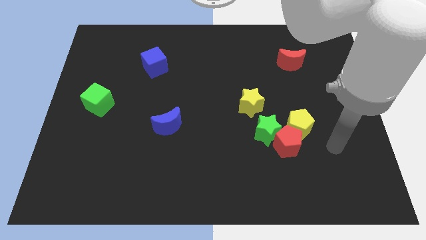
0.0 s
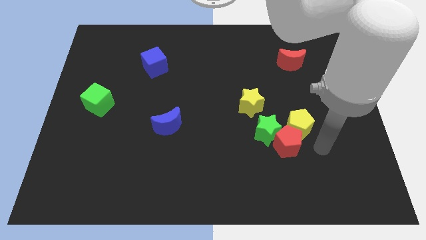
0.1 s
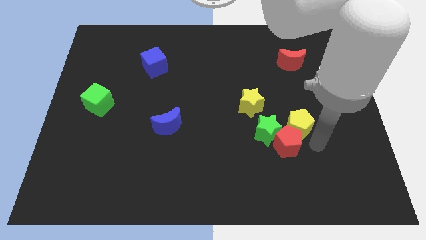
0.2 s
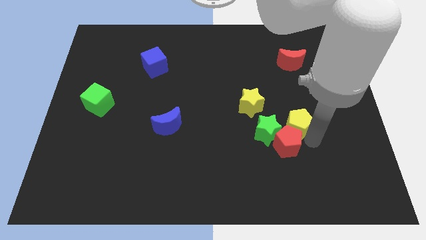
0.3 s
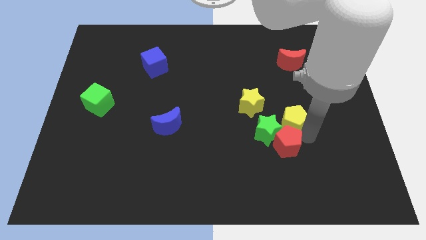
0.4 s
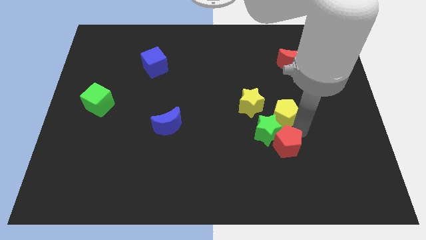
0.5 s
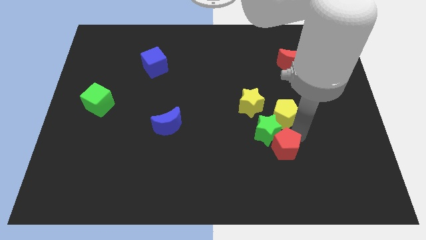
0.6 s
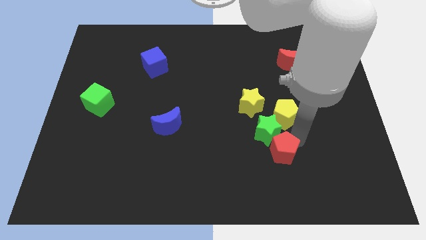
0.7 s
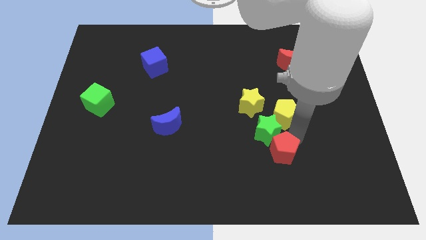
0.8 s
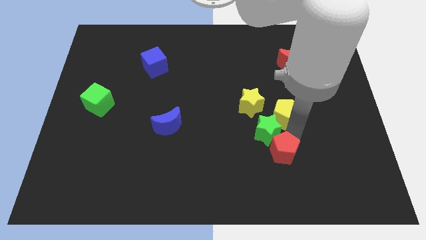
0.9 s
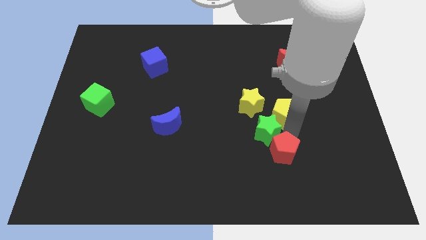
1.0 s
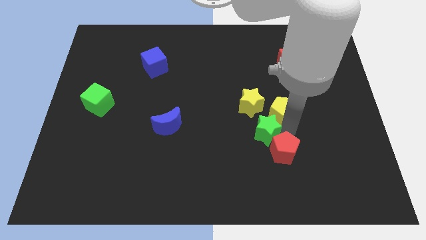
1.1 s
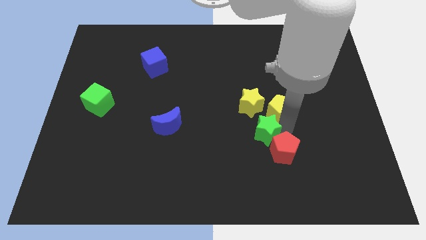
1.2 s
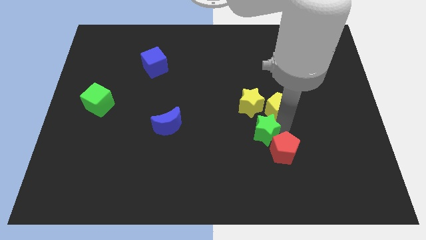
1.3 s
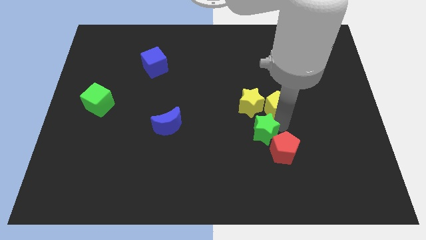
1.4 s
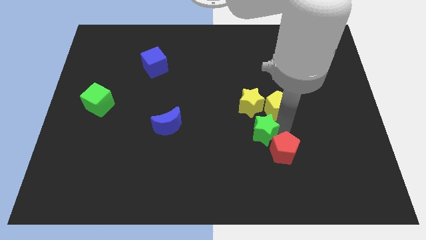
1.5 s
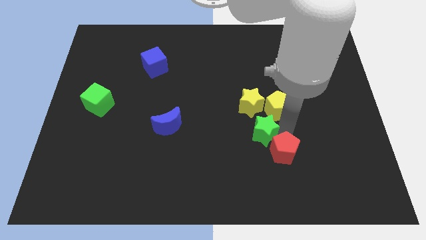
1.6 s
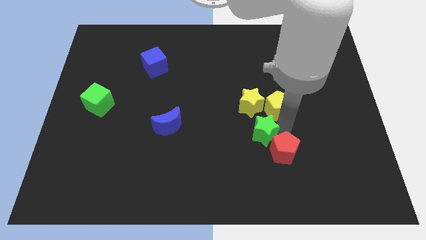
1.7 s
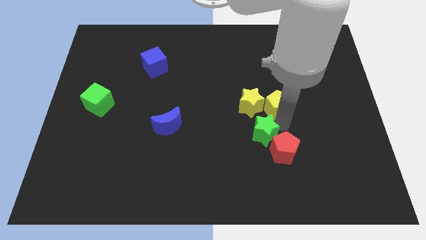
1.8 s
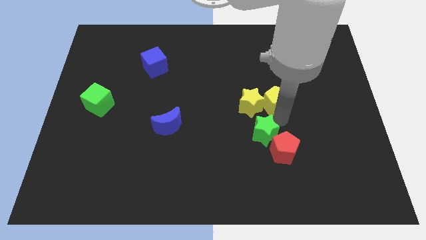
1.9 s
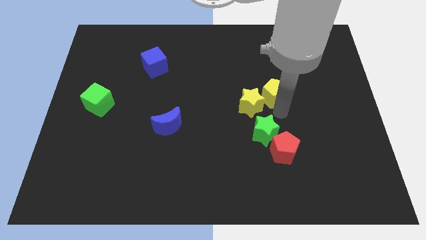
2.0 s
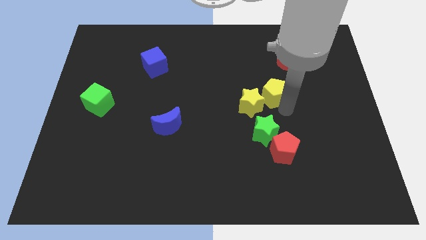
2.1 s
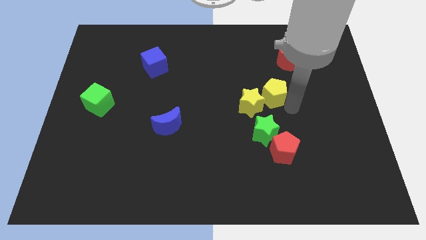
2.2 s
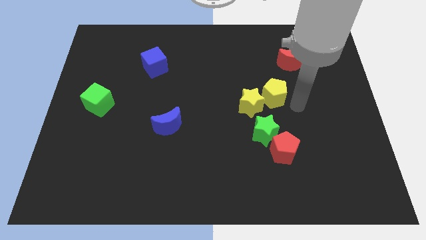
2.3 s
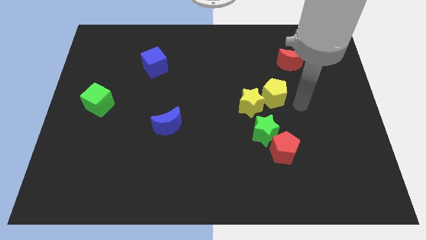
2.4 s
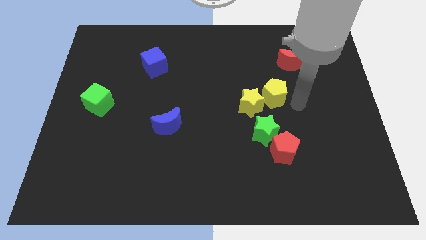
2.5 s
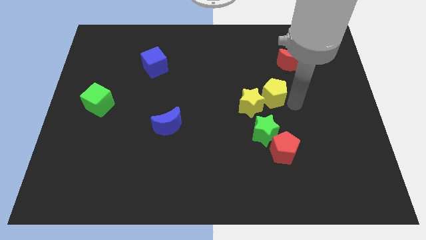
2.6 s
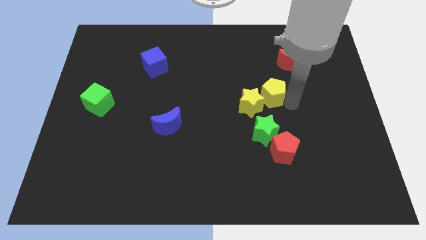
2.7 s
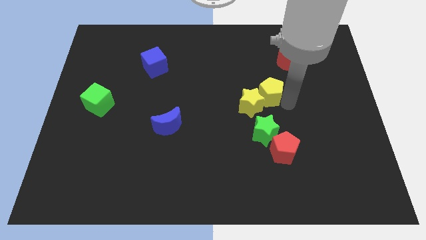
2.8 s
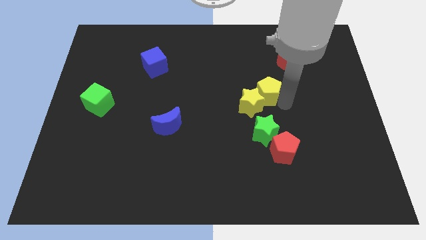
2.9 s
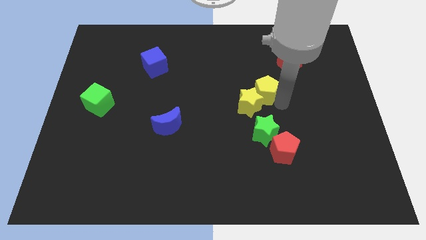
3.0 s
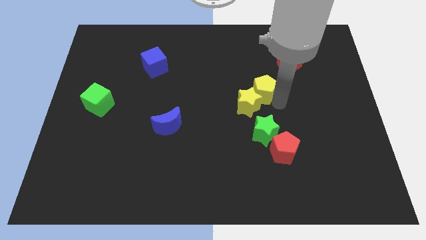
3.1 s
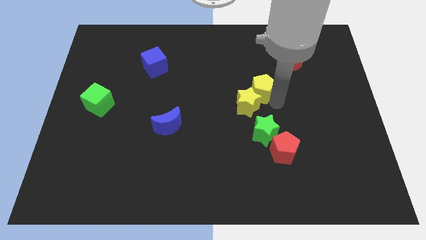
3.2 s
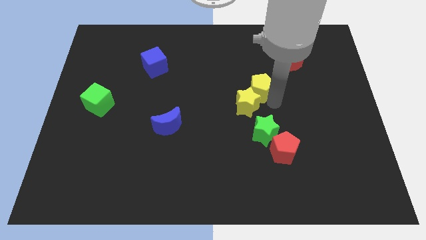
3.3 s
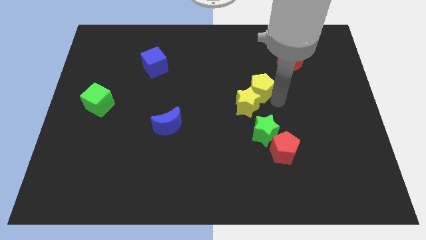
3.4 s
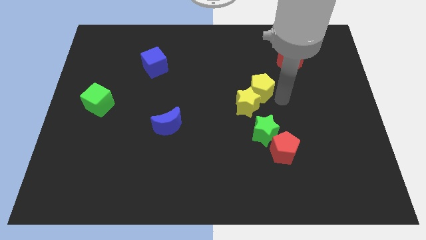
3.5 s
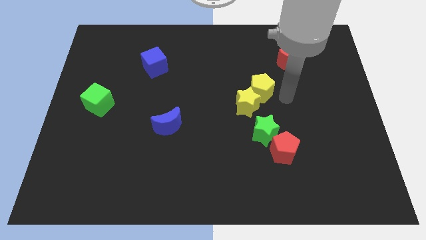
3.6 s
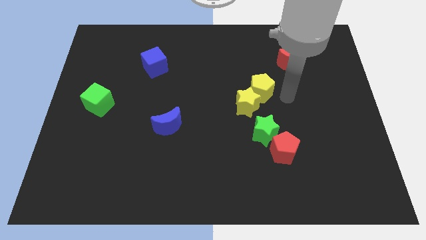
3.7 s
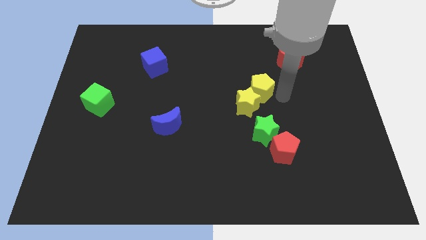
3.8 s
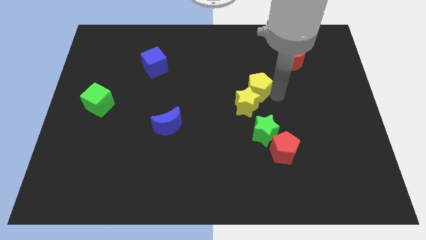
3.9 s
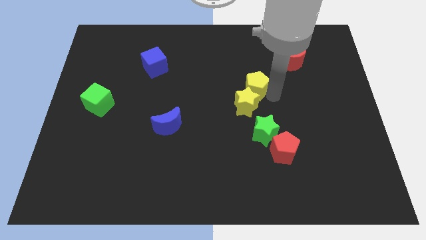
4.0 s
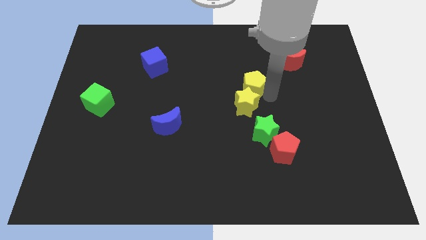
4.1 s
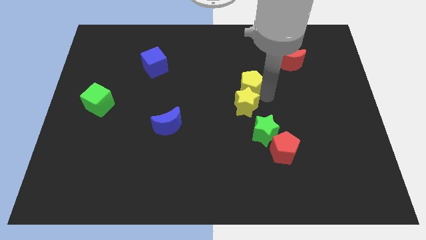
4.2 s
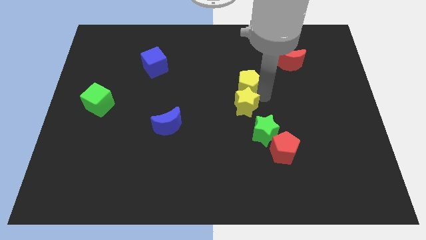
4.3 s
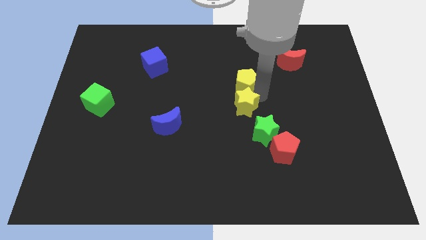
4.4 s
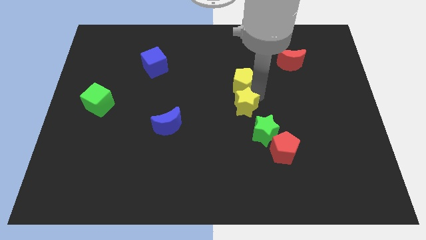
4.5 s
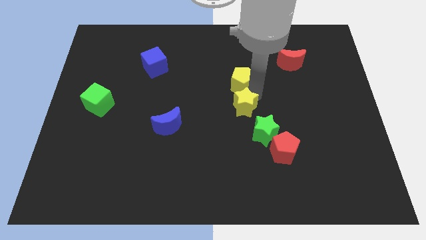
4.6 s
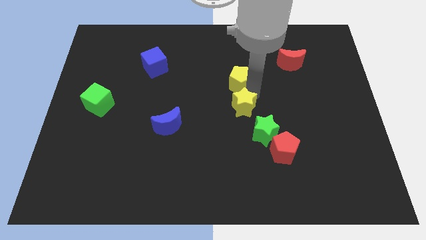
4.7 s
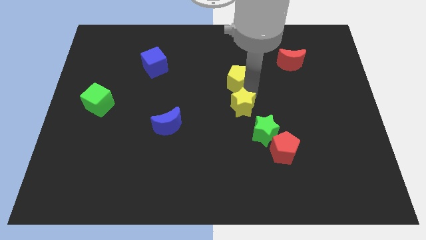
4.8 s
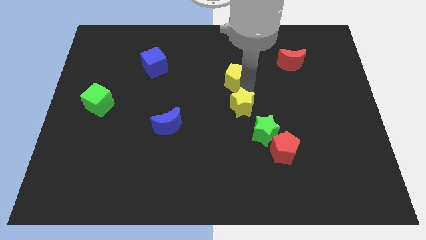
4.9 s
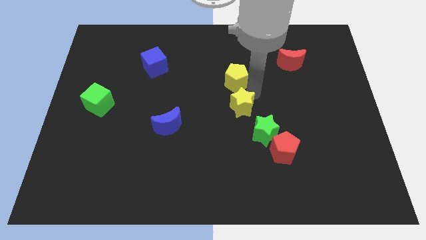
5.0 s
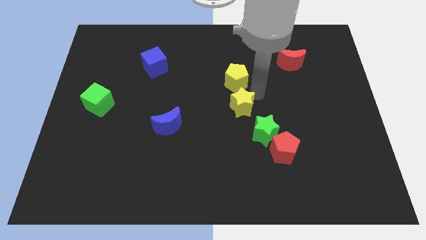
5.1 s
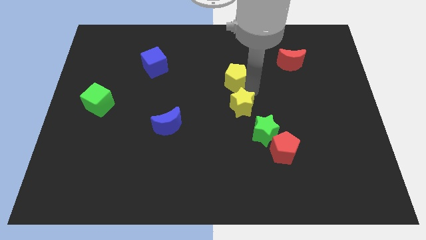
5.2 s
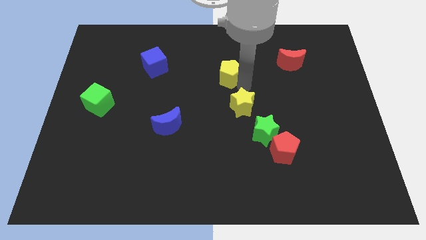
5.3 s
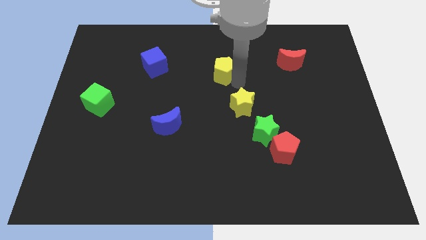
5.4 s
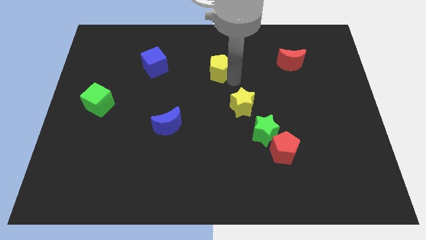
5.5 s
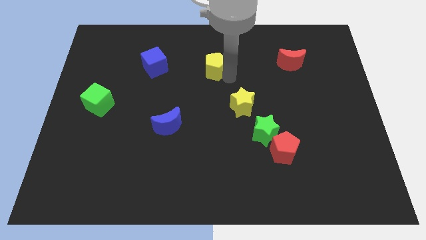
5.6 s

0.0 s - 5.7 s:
slide the yellow pentagon to the right of the blue cube

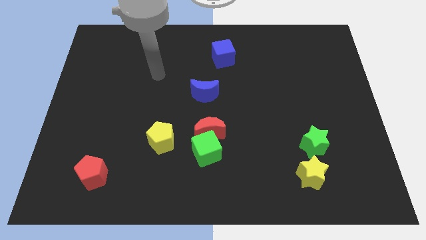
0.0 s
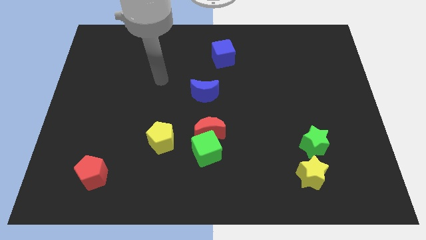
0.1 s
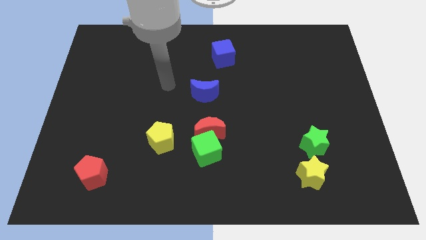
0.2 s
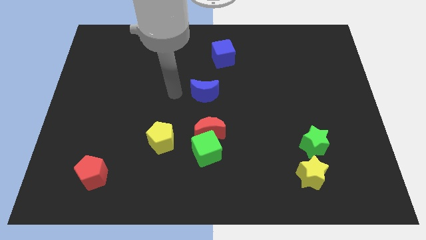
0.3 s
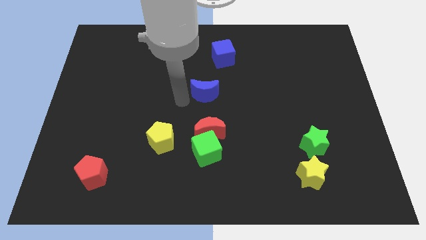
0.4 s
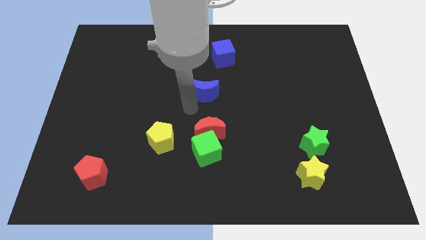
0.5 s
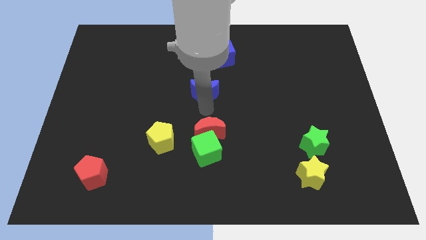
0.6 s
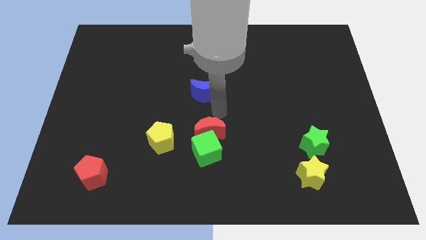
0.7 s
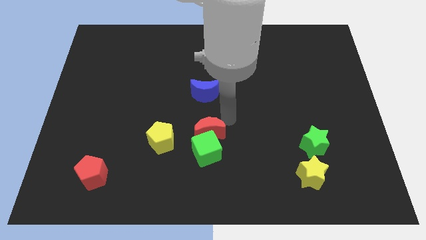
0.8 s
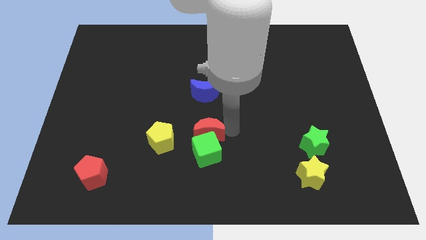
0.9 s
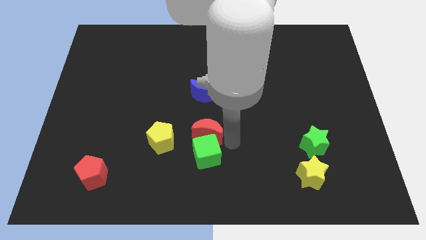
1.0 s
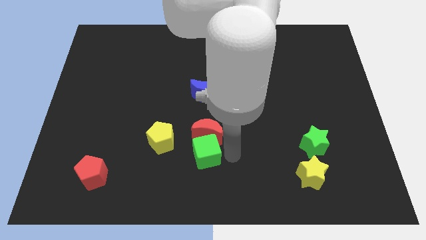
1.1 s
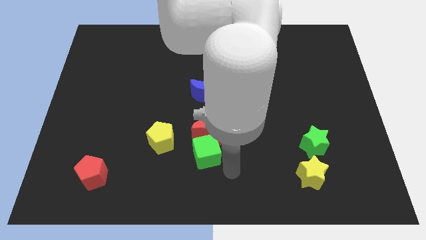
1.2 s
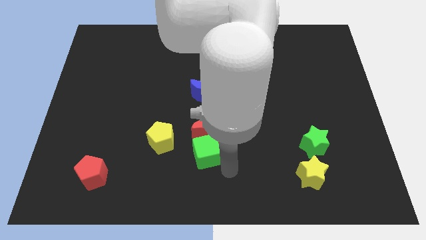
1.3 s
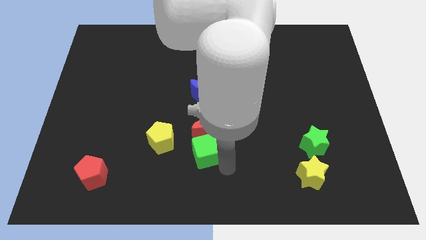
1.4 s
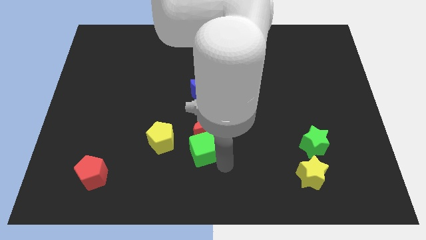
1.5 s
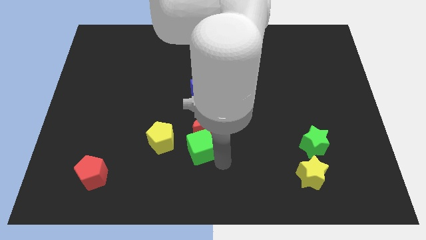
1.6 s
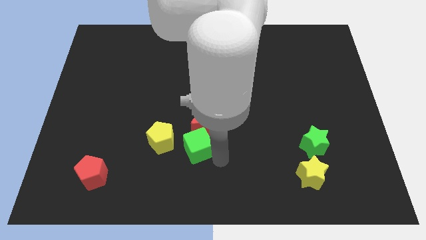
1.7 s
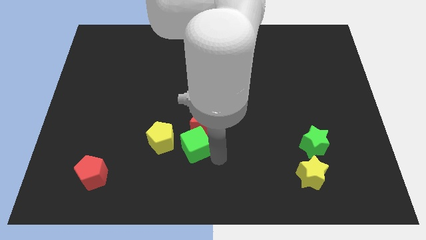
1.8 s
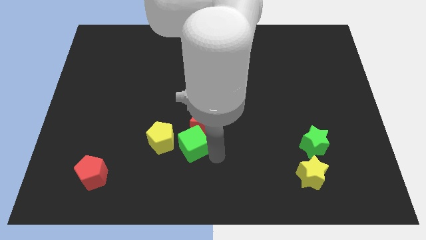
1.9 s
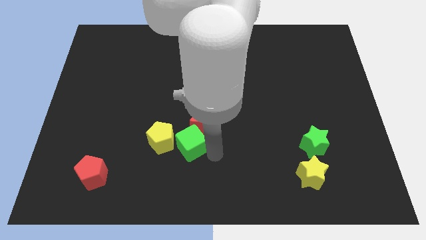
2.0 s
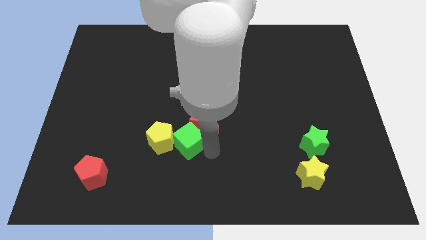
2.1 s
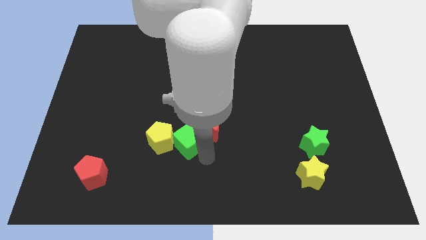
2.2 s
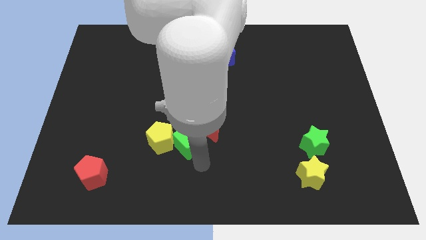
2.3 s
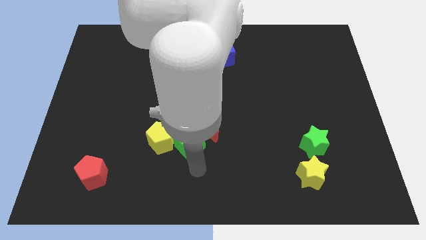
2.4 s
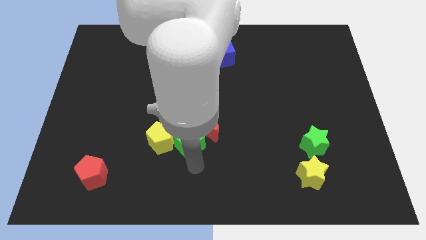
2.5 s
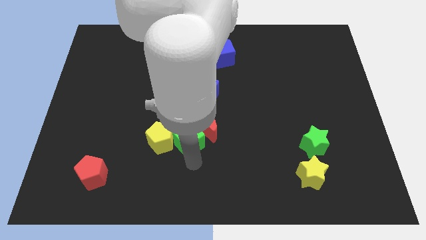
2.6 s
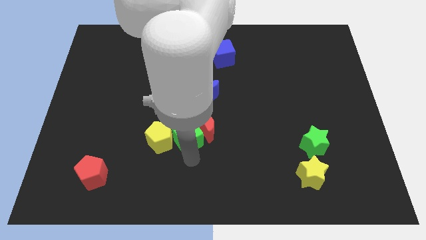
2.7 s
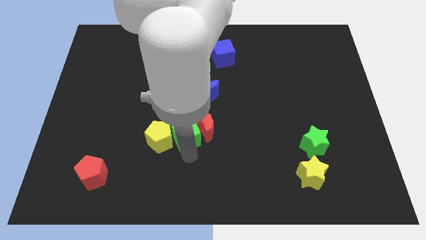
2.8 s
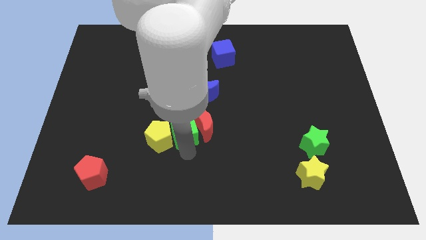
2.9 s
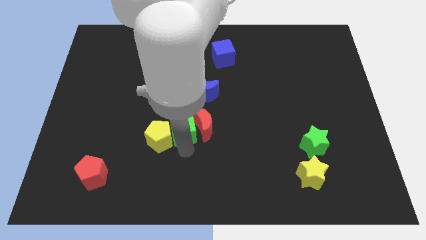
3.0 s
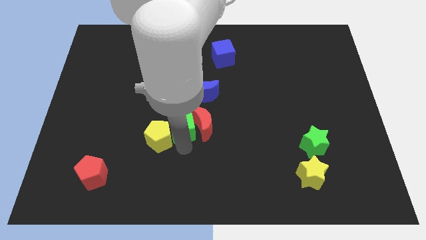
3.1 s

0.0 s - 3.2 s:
slide the green cube diagonally down and to the left of the blue moon
